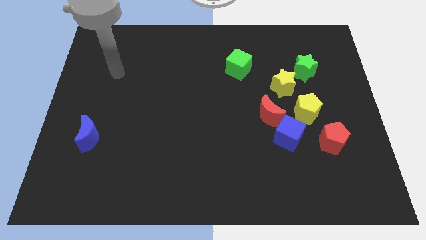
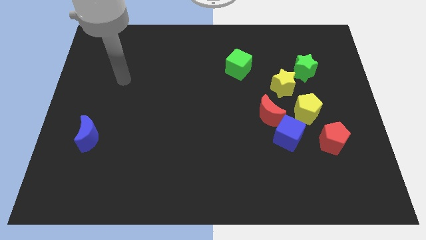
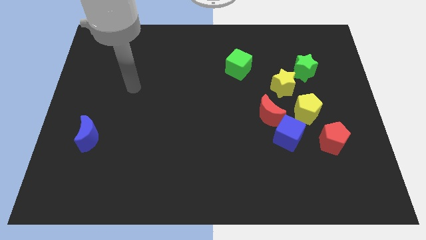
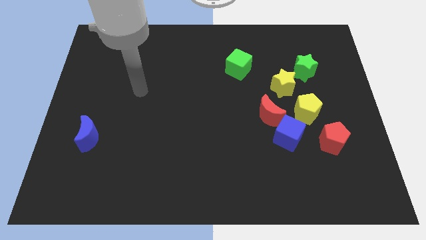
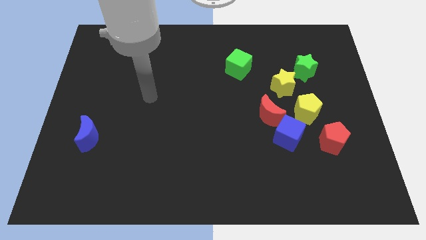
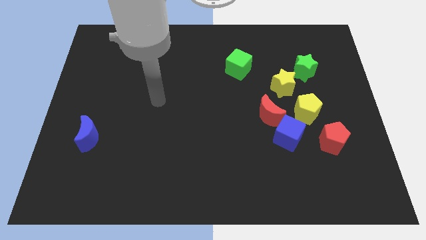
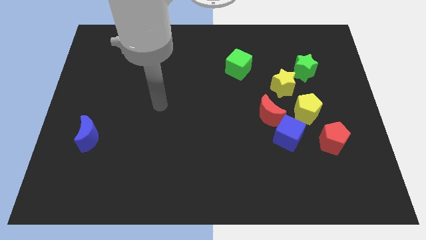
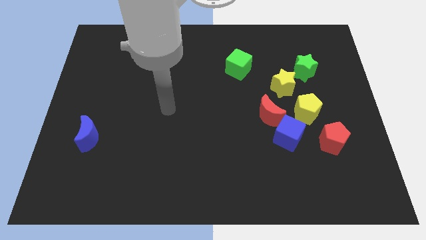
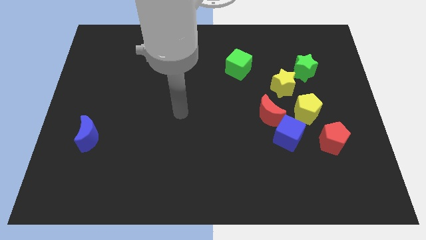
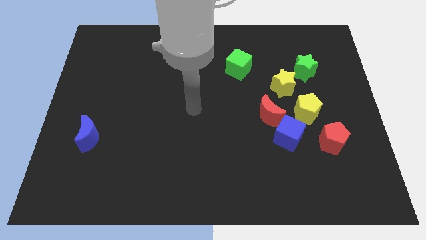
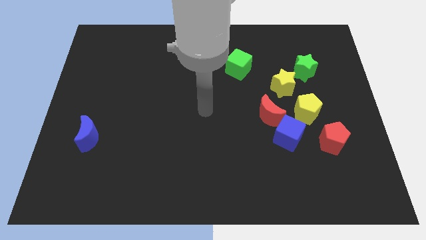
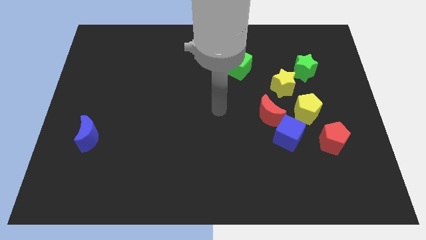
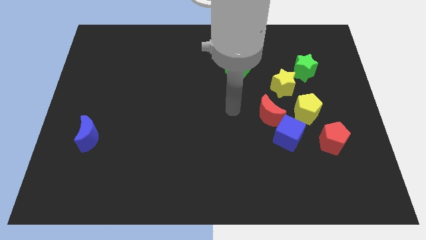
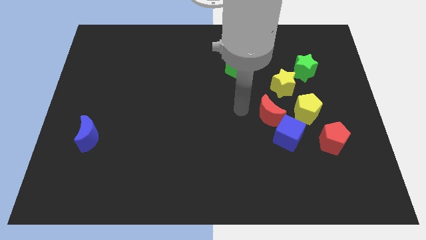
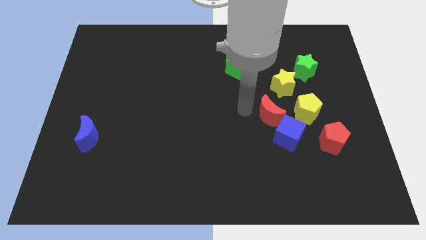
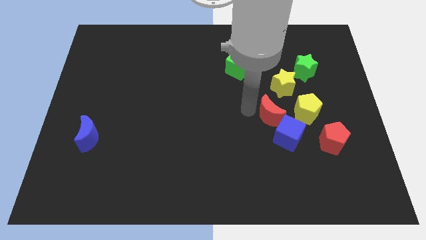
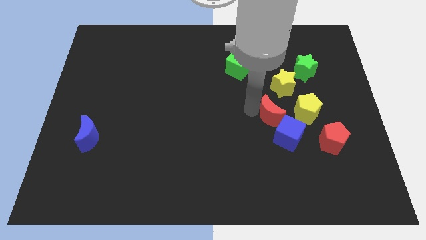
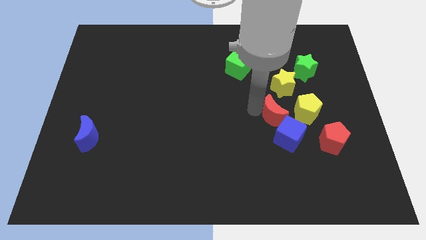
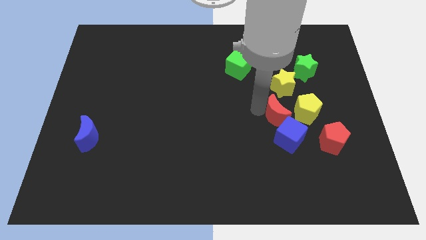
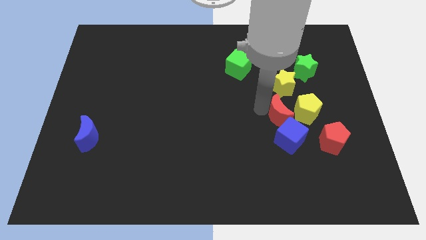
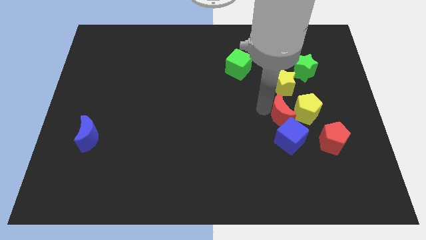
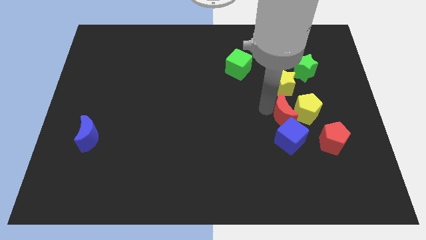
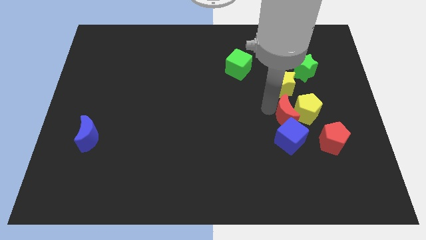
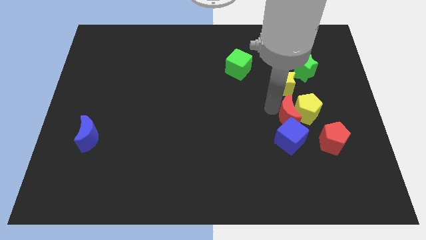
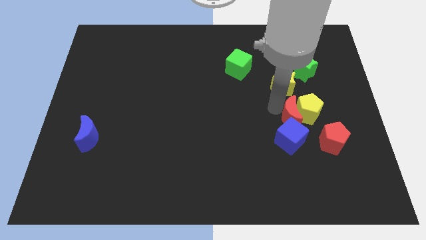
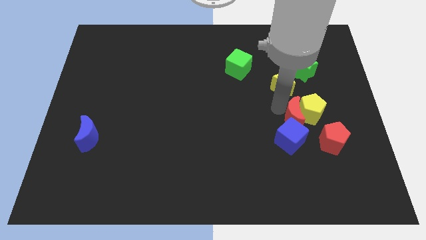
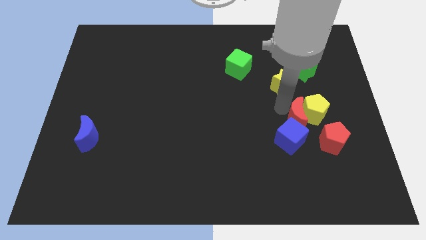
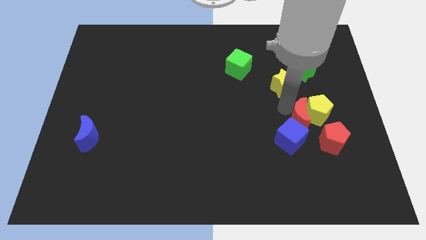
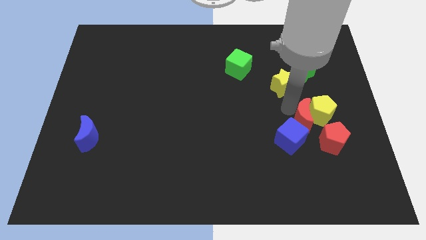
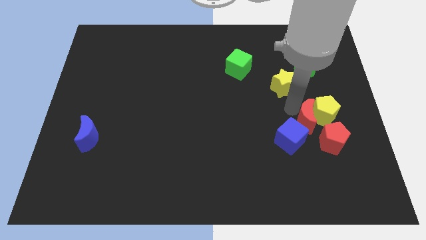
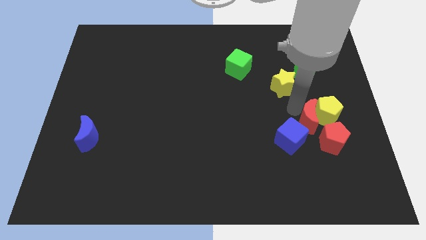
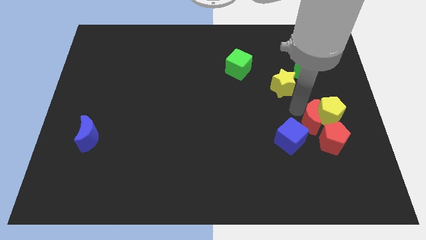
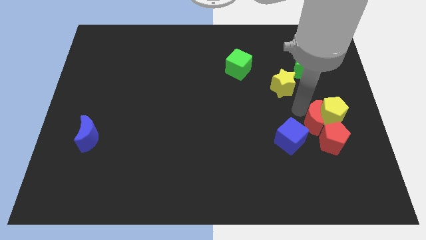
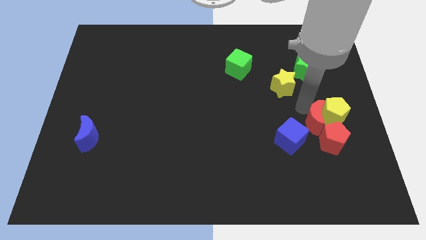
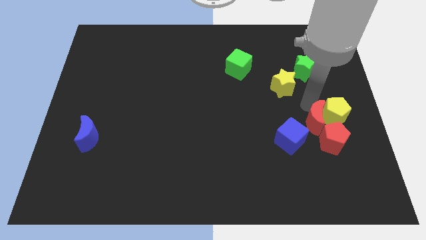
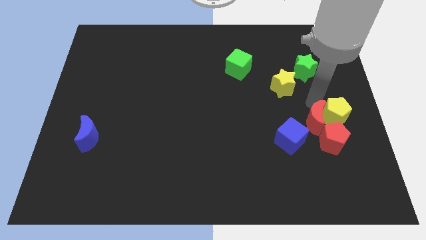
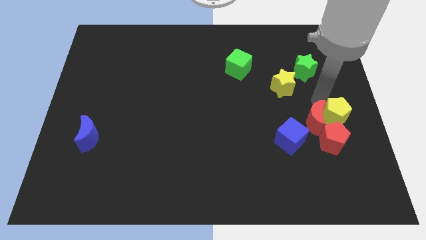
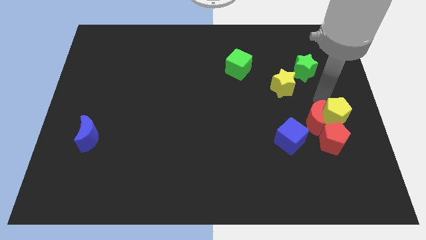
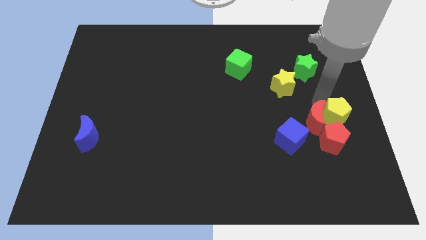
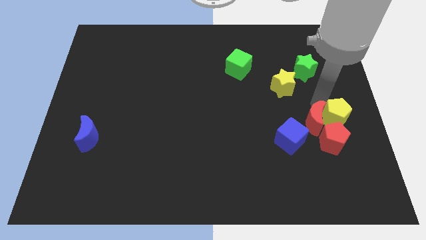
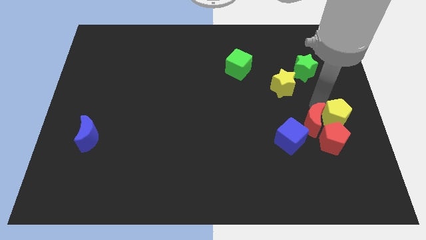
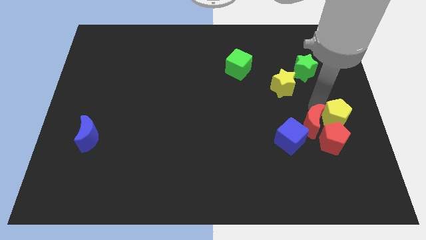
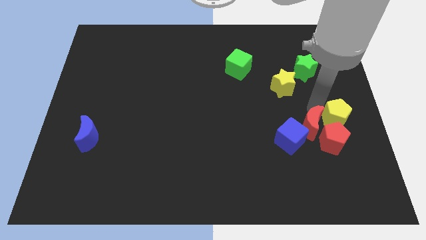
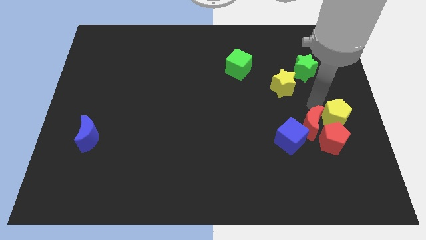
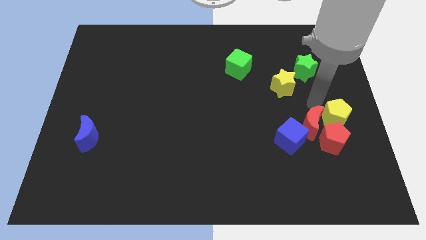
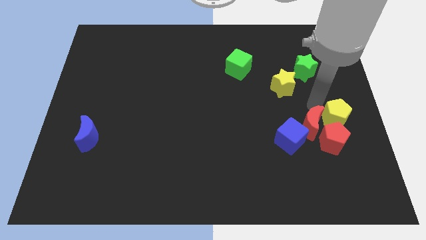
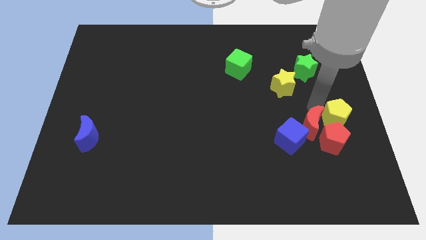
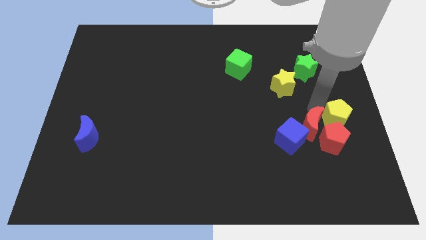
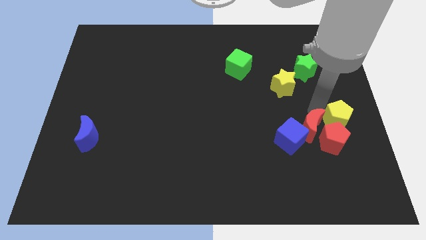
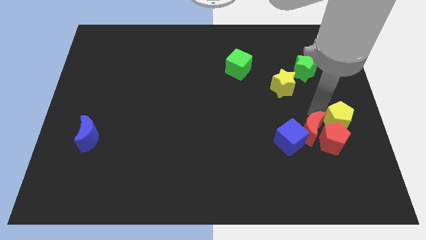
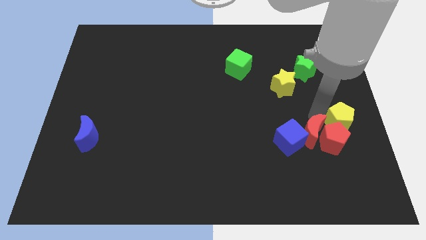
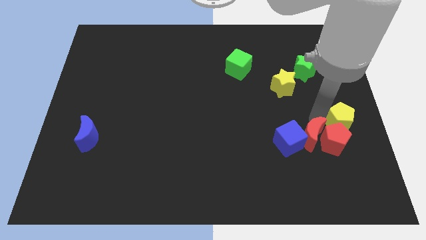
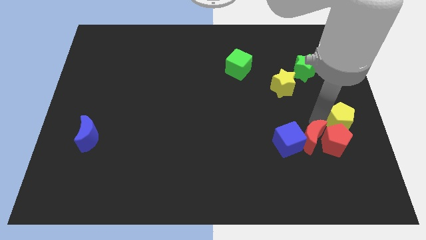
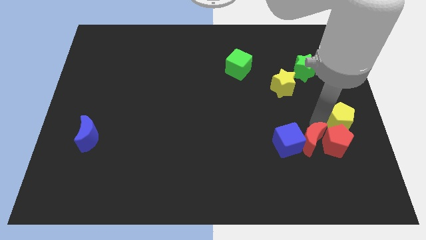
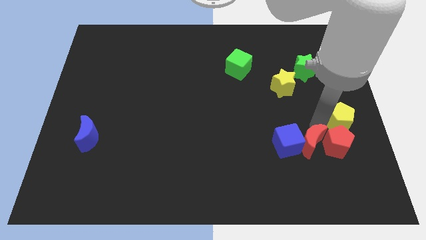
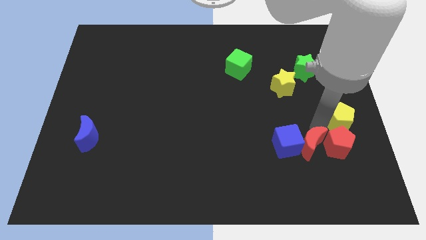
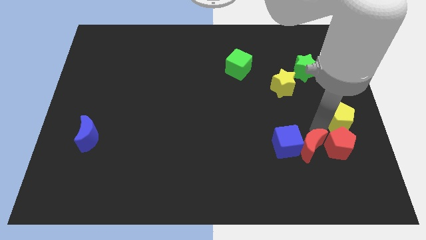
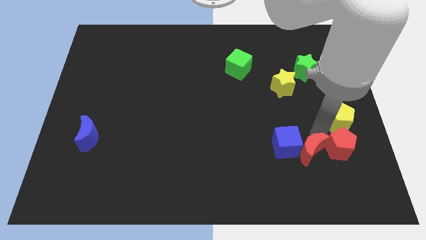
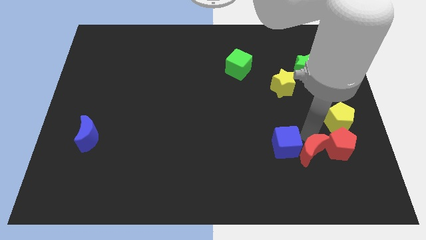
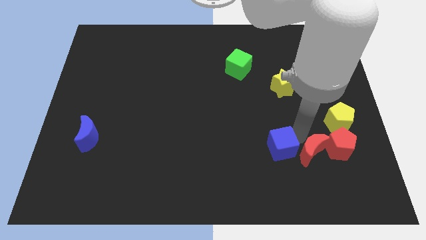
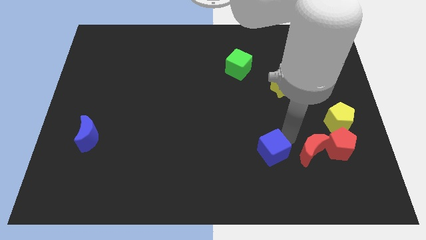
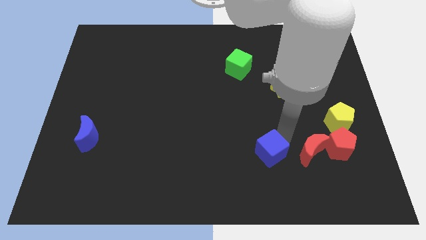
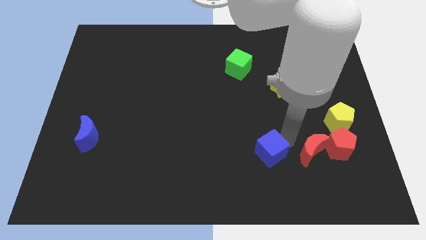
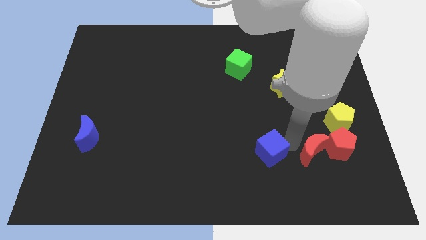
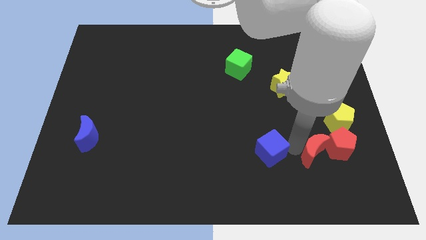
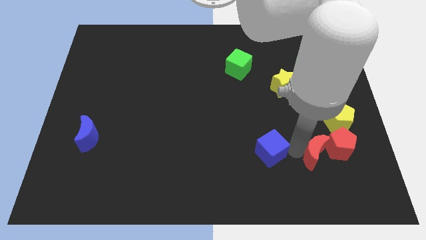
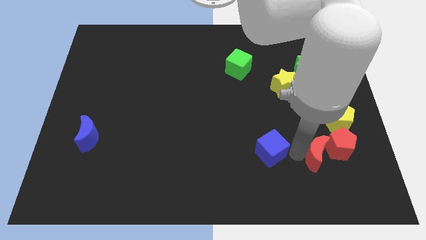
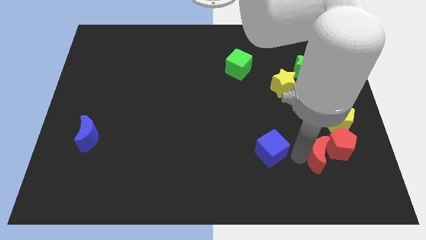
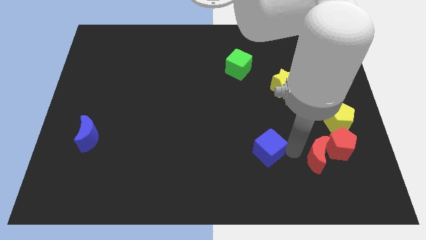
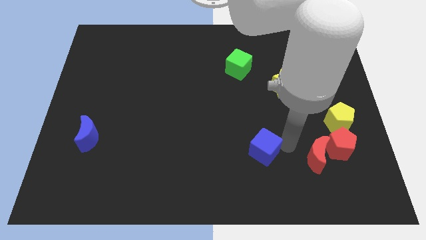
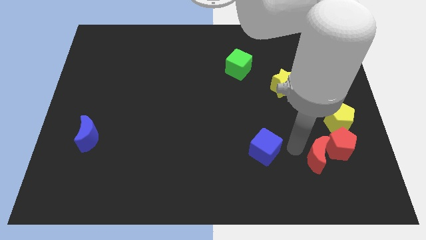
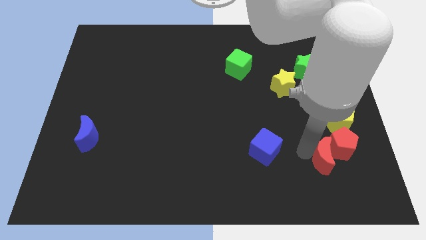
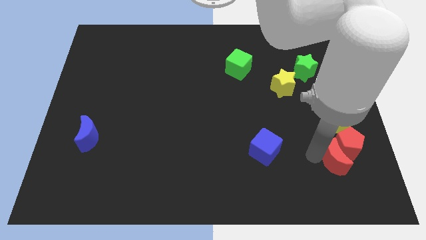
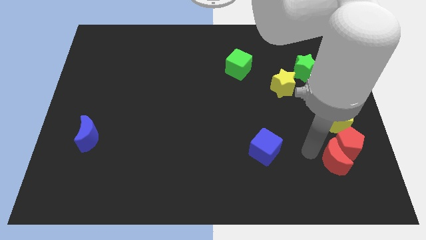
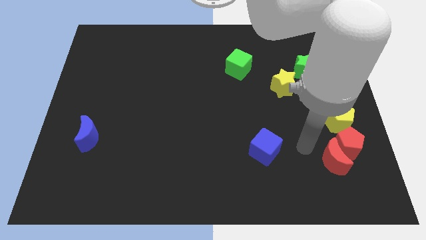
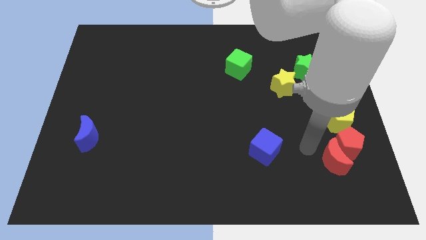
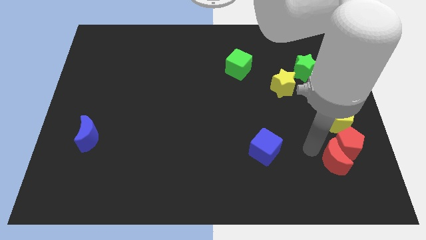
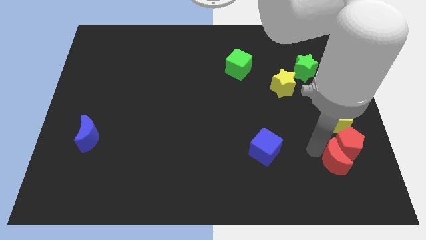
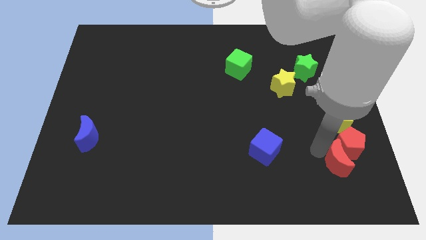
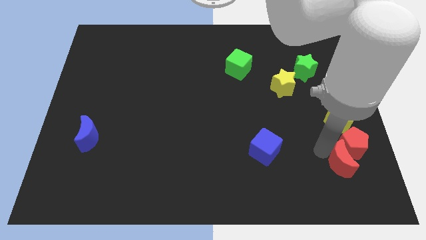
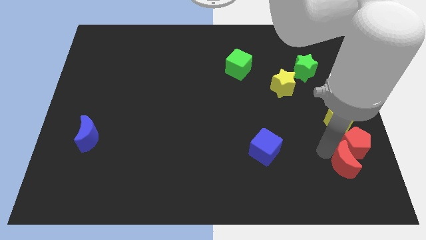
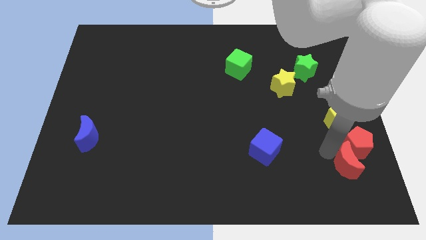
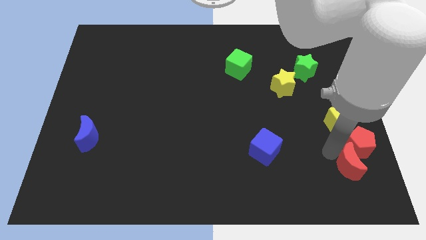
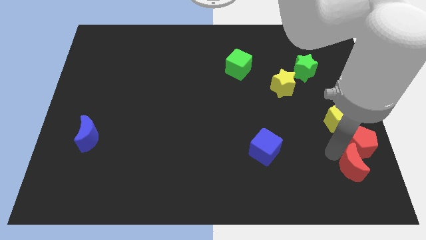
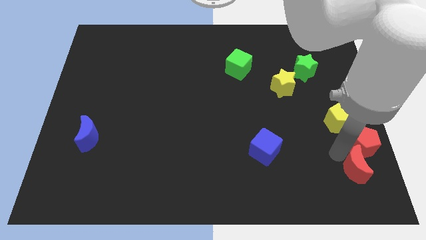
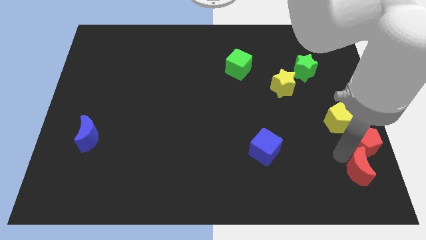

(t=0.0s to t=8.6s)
put the red moon to the bottom right
